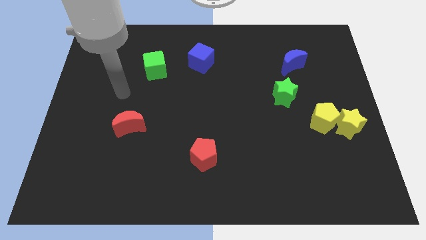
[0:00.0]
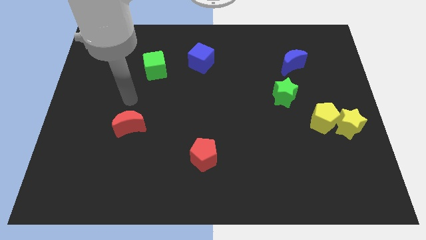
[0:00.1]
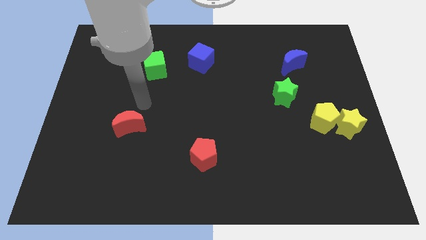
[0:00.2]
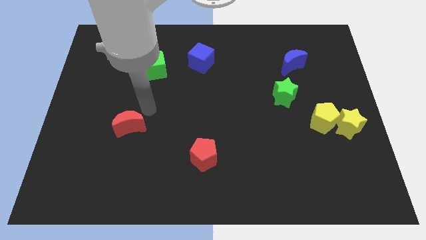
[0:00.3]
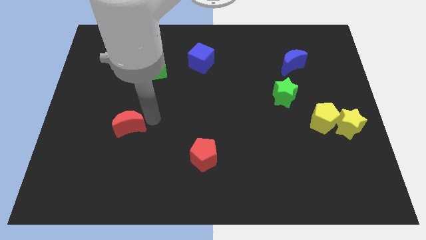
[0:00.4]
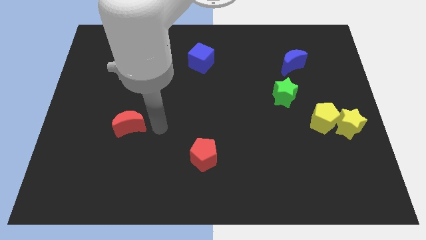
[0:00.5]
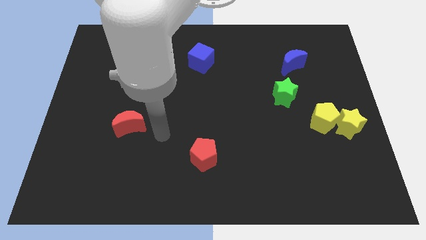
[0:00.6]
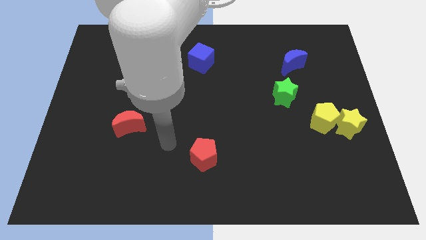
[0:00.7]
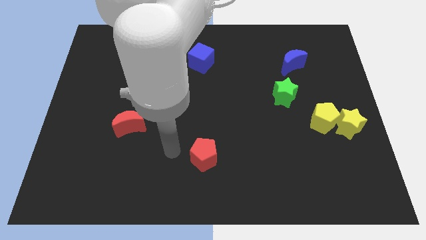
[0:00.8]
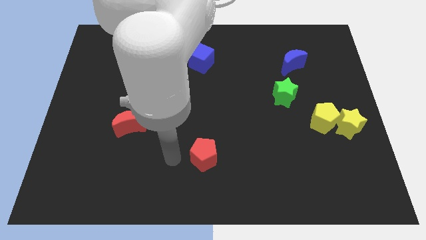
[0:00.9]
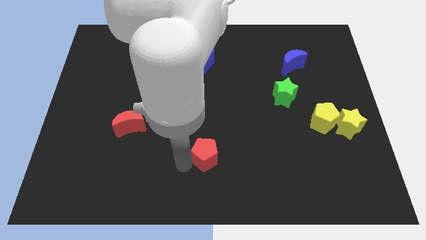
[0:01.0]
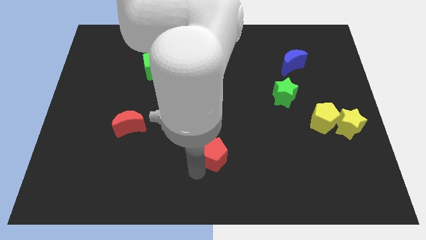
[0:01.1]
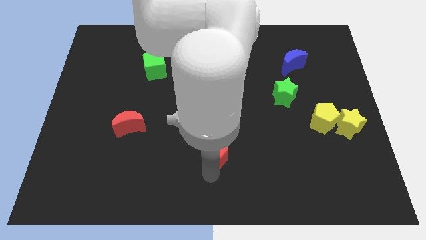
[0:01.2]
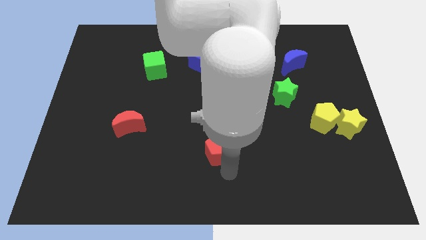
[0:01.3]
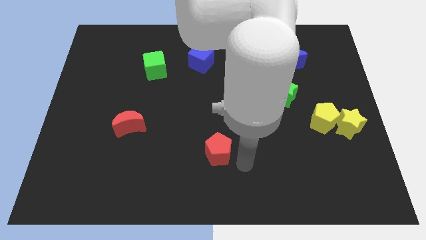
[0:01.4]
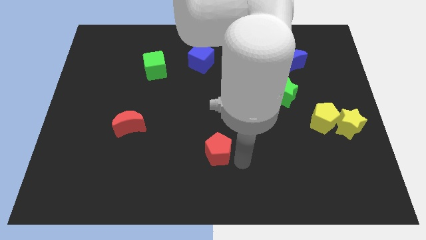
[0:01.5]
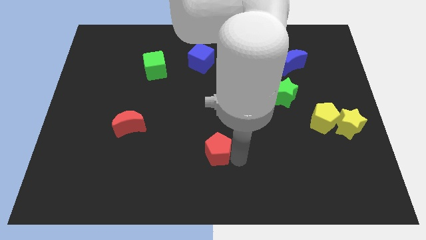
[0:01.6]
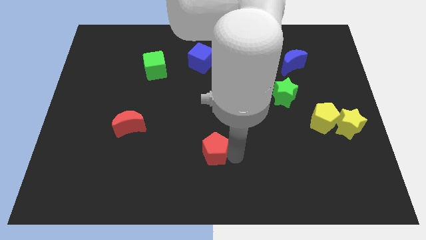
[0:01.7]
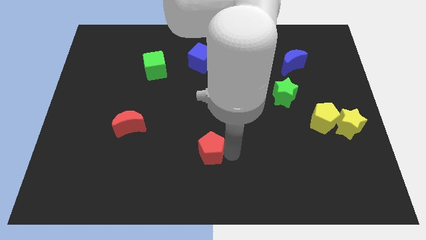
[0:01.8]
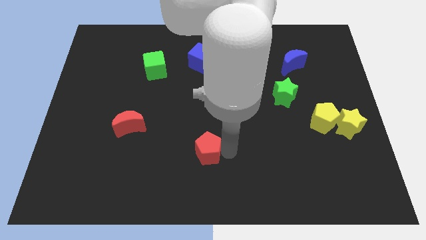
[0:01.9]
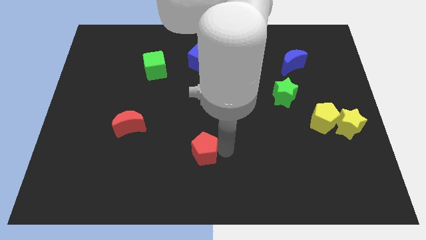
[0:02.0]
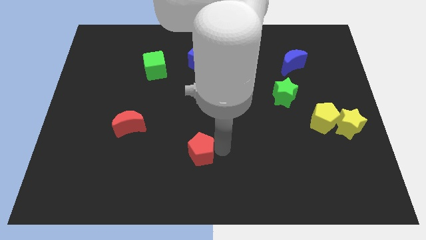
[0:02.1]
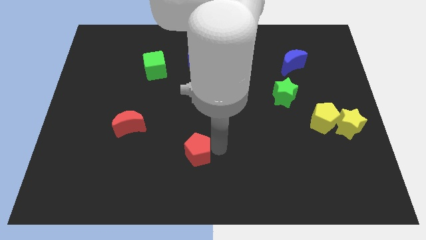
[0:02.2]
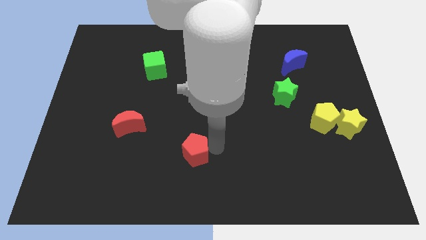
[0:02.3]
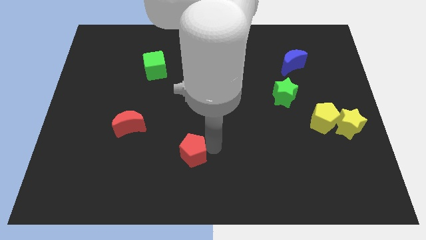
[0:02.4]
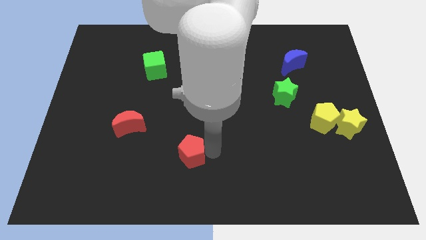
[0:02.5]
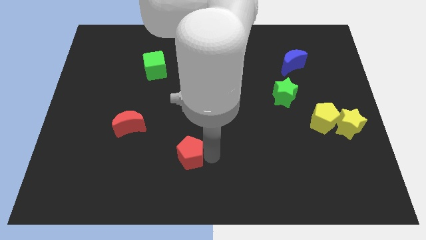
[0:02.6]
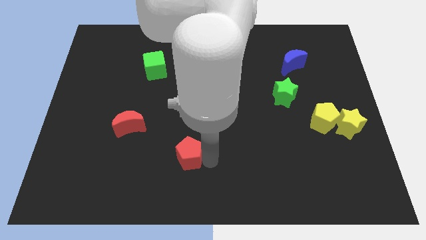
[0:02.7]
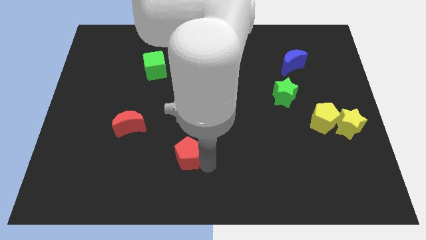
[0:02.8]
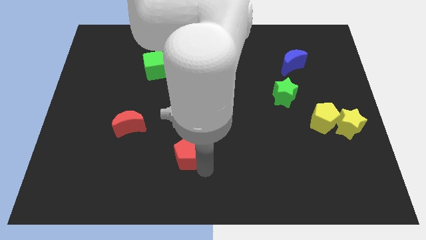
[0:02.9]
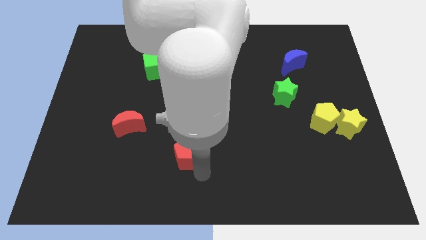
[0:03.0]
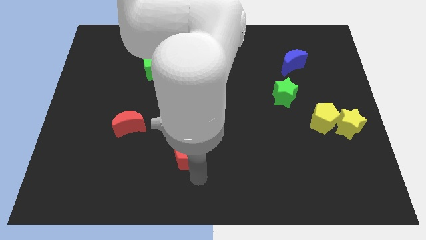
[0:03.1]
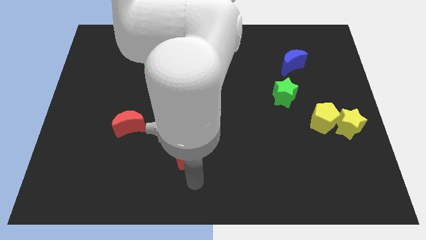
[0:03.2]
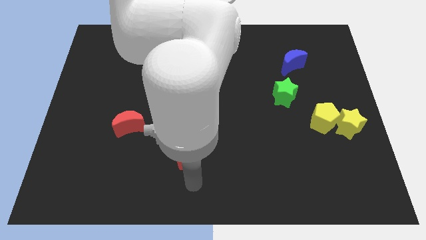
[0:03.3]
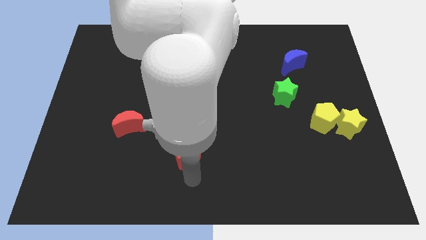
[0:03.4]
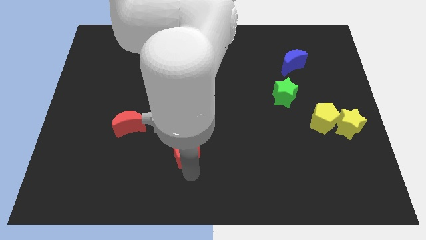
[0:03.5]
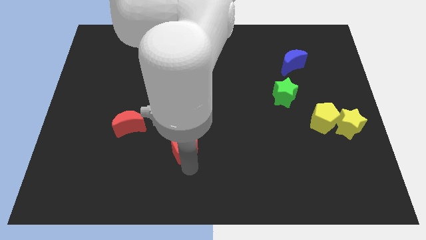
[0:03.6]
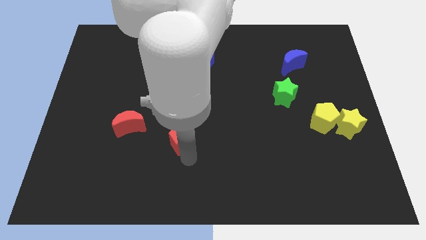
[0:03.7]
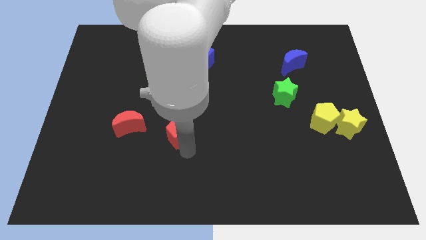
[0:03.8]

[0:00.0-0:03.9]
push the red pentagon somewhat up and left

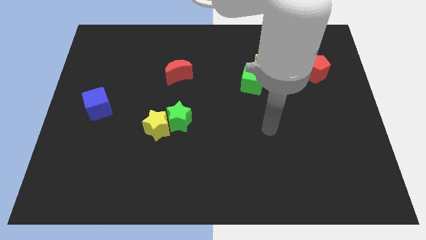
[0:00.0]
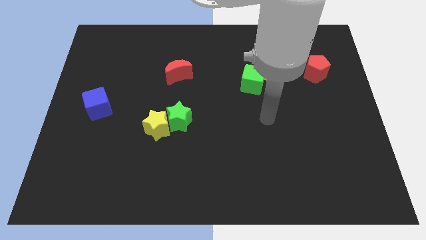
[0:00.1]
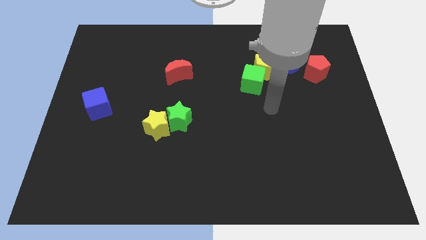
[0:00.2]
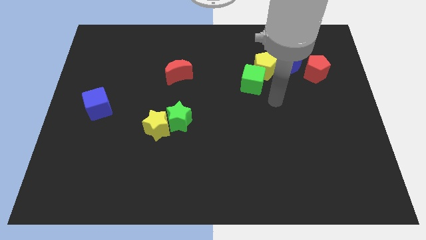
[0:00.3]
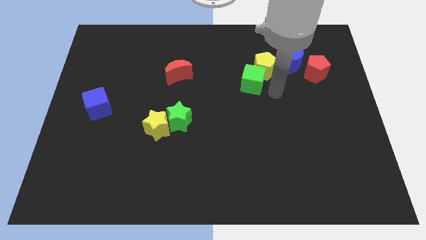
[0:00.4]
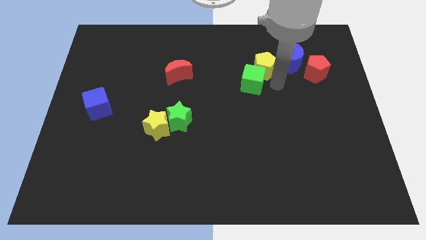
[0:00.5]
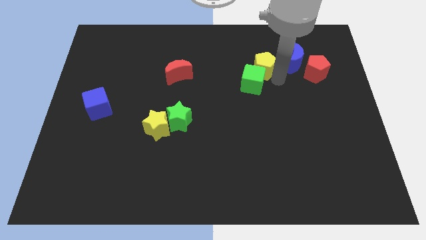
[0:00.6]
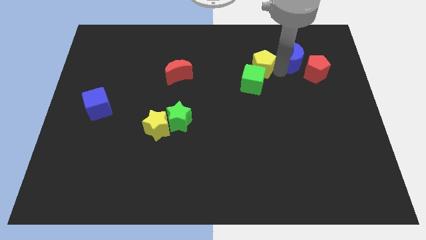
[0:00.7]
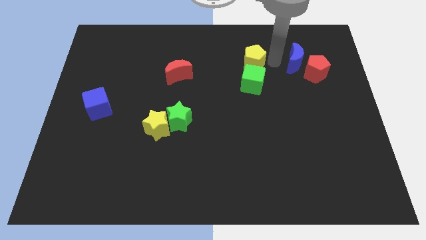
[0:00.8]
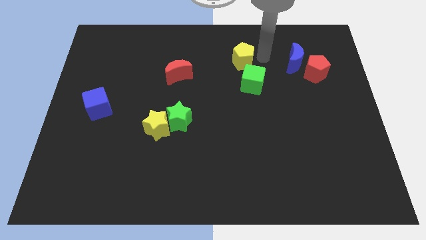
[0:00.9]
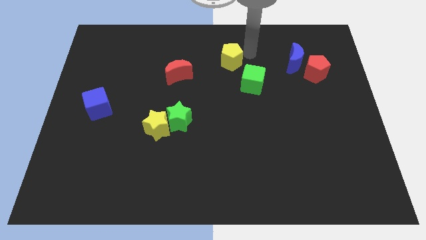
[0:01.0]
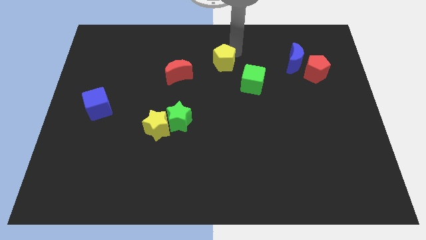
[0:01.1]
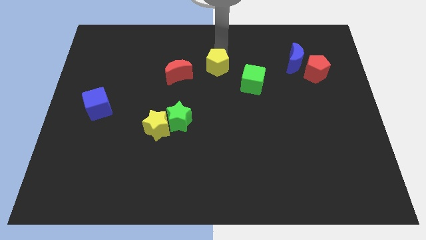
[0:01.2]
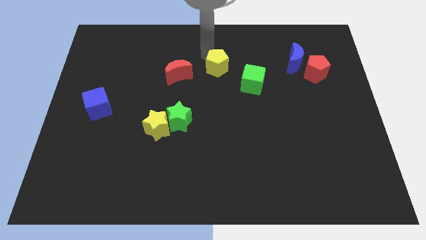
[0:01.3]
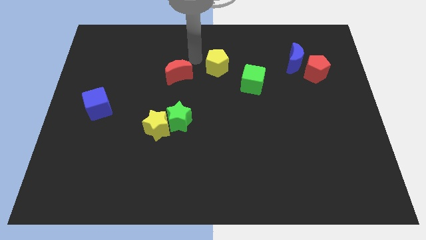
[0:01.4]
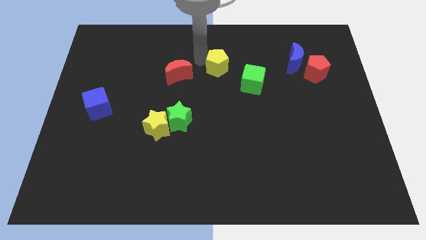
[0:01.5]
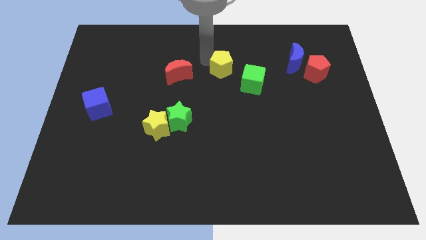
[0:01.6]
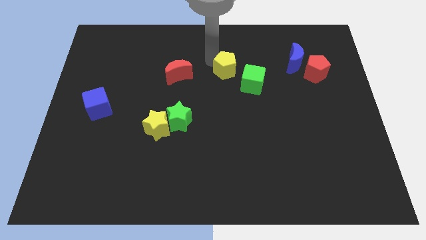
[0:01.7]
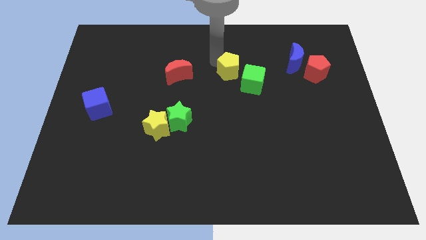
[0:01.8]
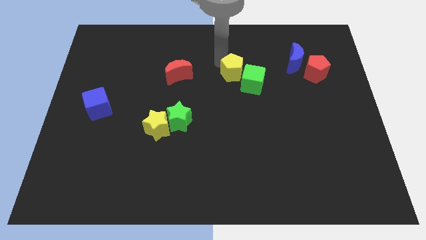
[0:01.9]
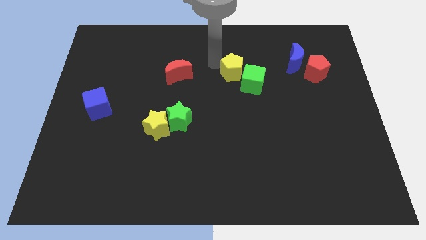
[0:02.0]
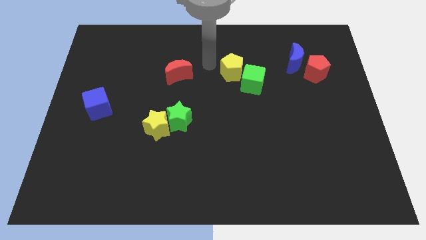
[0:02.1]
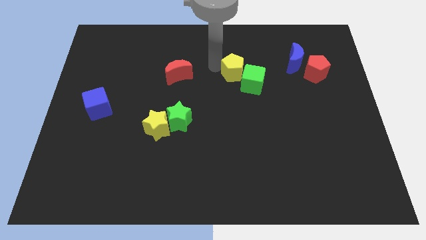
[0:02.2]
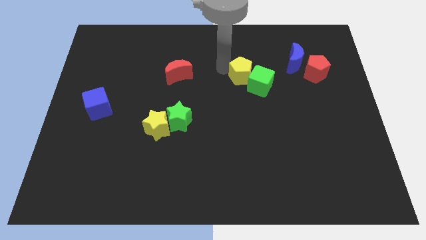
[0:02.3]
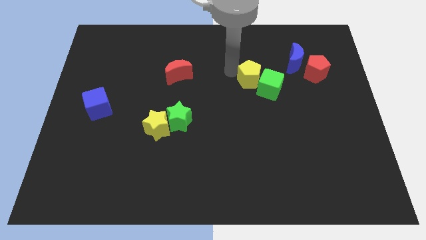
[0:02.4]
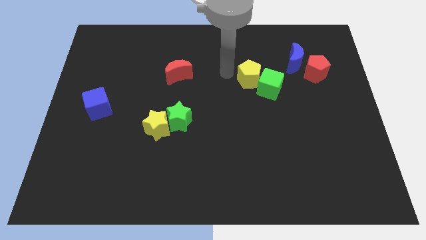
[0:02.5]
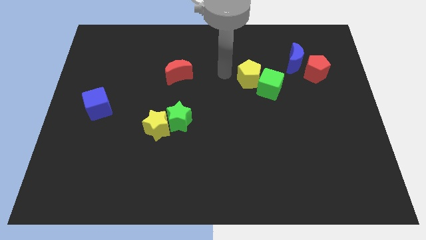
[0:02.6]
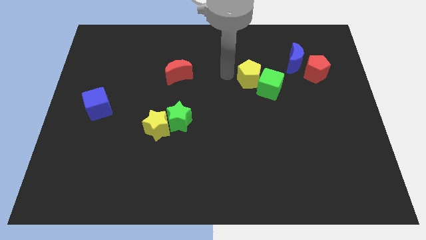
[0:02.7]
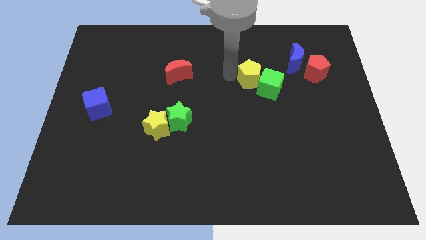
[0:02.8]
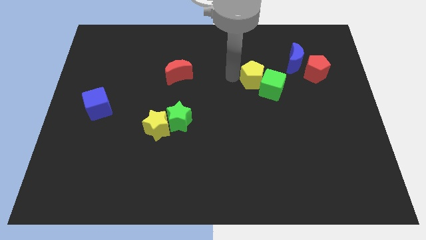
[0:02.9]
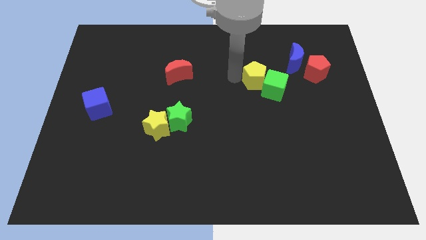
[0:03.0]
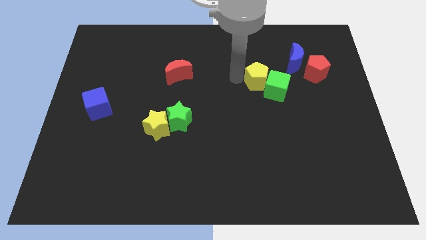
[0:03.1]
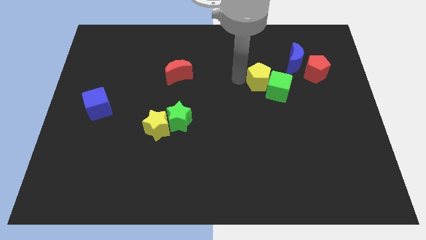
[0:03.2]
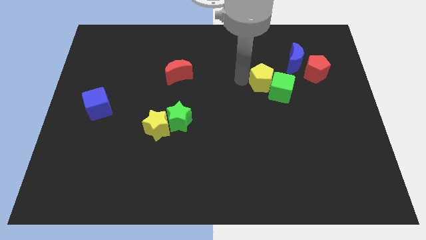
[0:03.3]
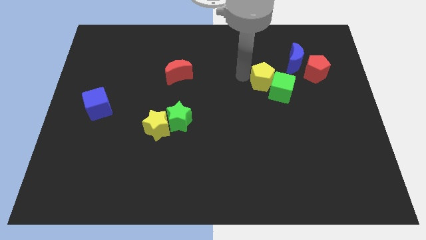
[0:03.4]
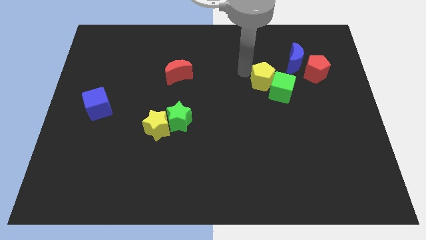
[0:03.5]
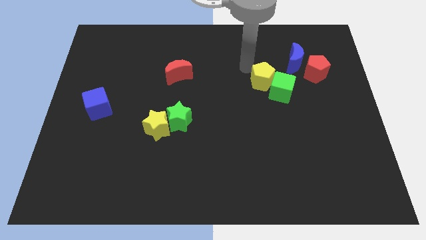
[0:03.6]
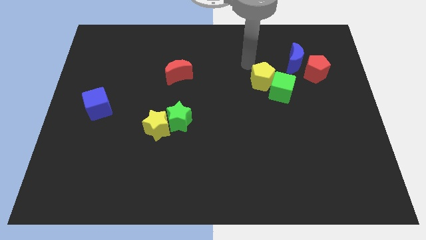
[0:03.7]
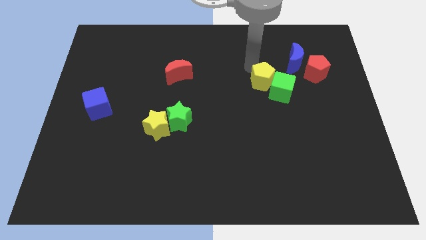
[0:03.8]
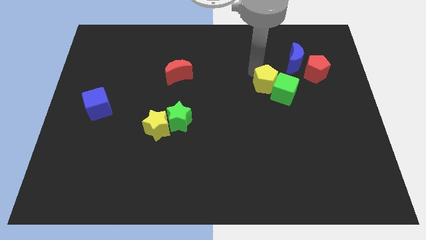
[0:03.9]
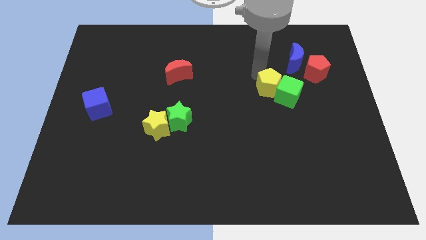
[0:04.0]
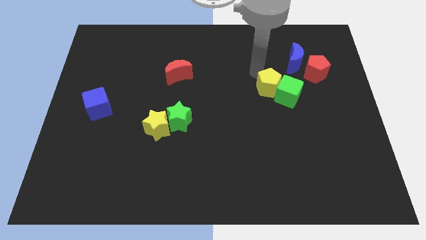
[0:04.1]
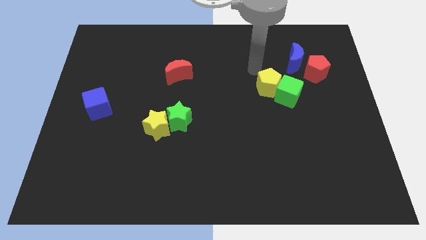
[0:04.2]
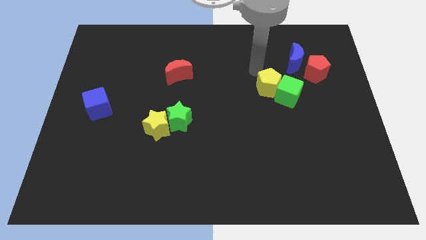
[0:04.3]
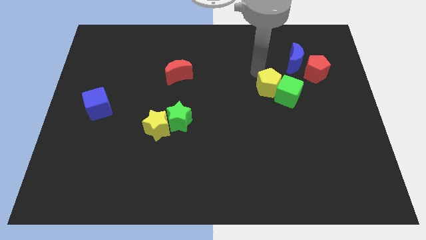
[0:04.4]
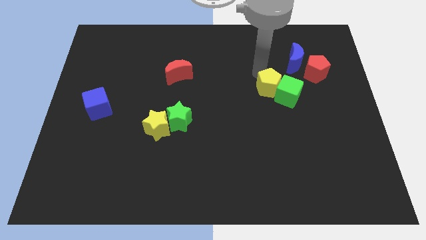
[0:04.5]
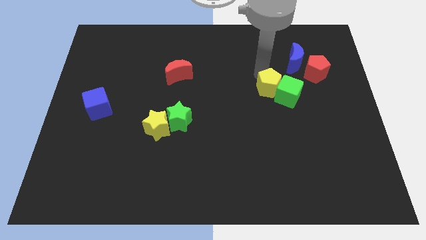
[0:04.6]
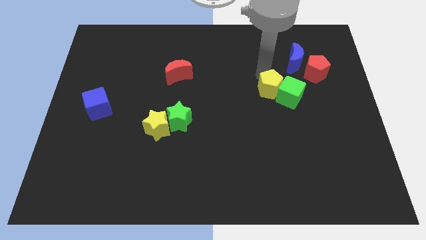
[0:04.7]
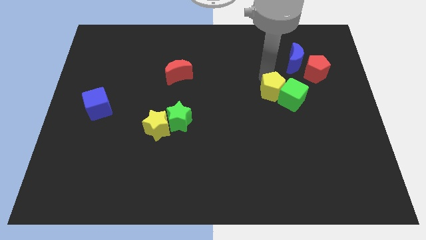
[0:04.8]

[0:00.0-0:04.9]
slightly move the yellow pentagon down
